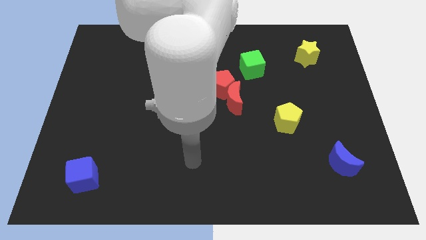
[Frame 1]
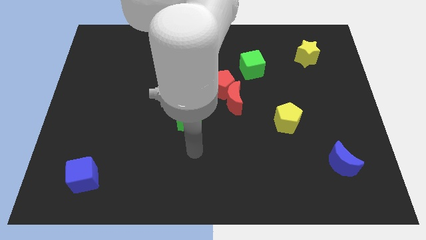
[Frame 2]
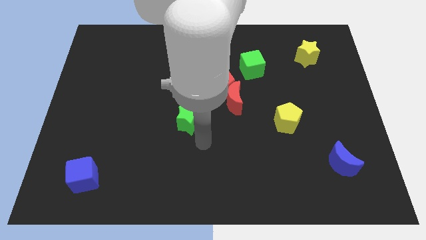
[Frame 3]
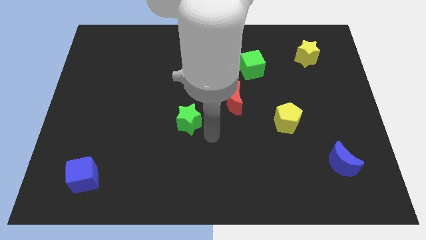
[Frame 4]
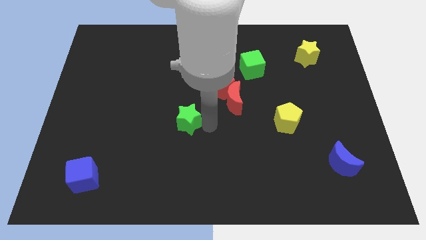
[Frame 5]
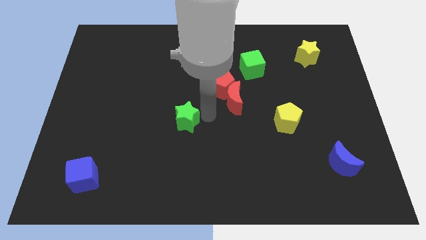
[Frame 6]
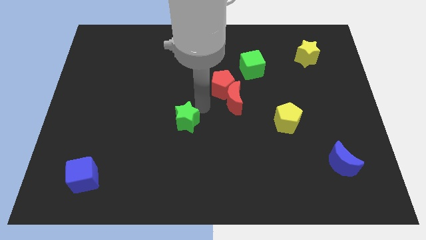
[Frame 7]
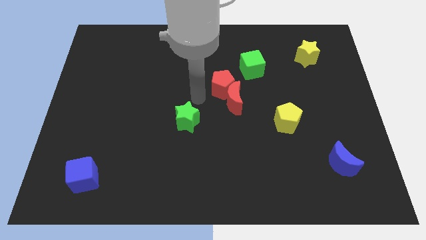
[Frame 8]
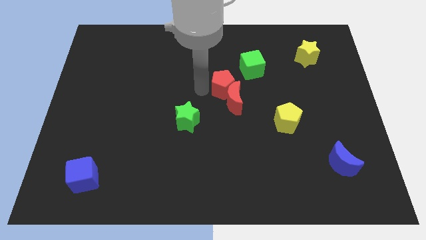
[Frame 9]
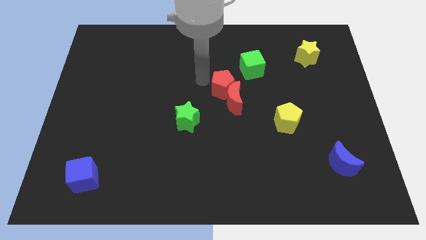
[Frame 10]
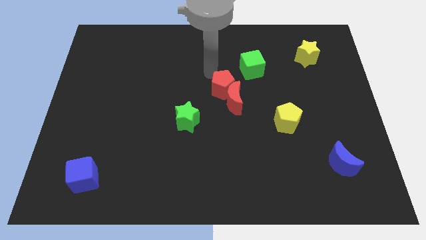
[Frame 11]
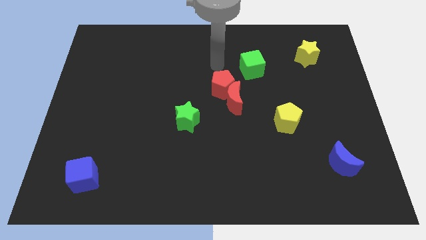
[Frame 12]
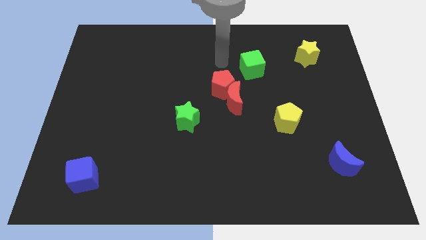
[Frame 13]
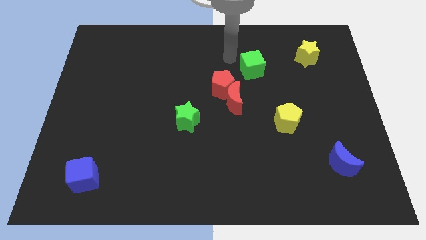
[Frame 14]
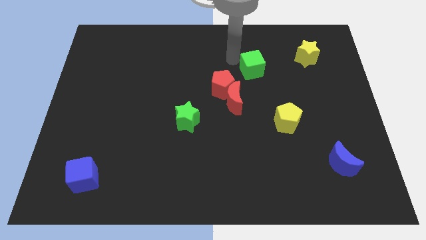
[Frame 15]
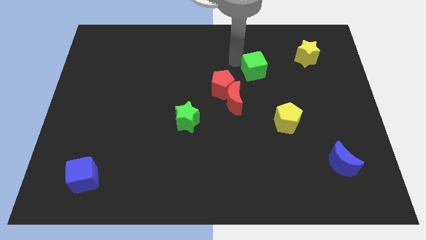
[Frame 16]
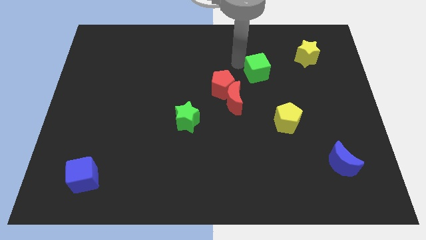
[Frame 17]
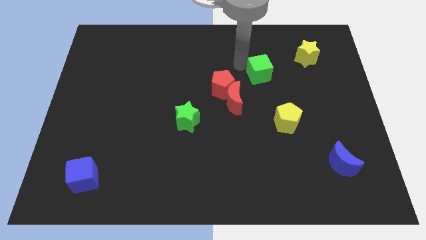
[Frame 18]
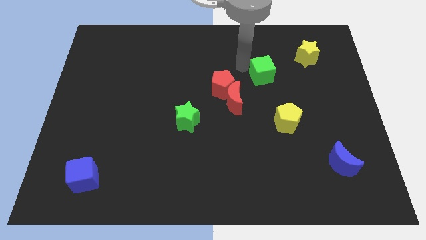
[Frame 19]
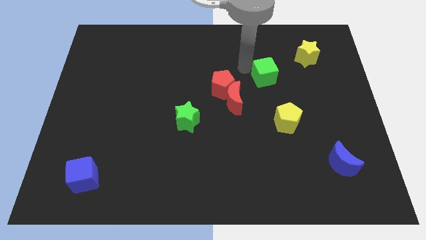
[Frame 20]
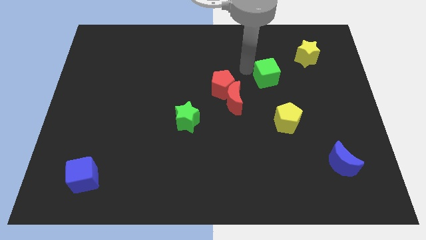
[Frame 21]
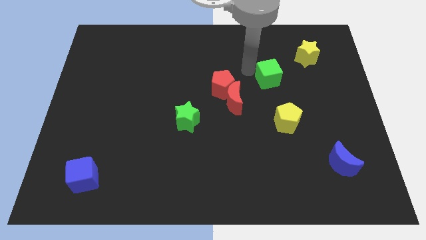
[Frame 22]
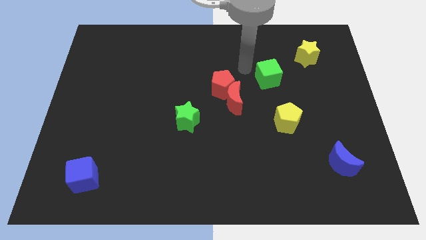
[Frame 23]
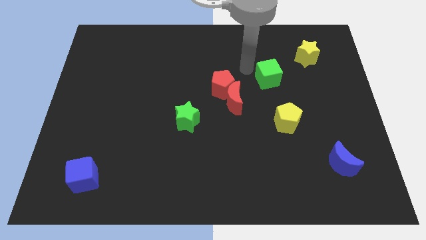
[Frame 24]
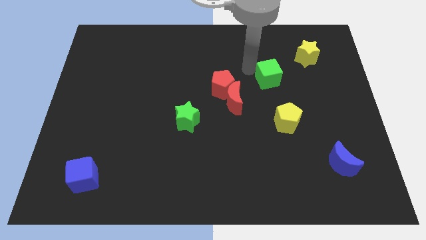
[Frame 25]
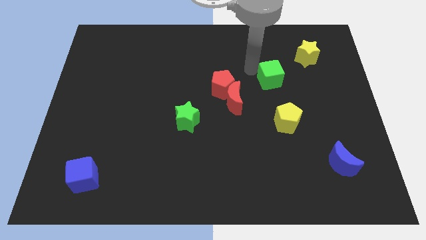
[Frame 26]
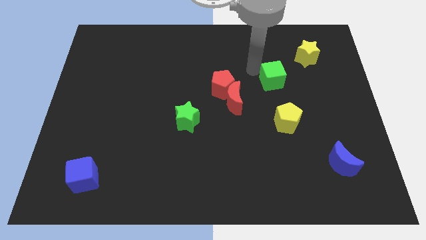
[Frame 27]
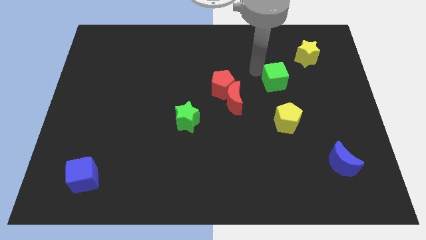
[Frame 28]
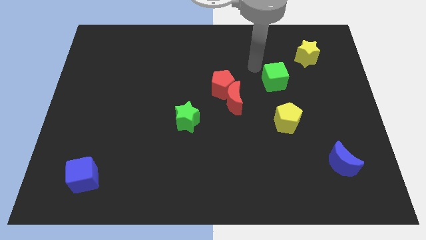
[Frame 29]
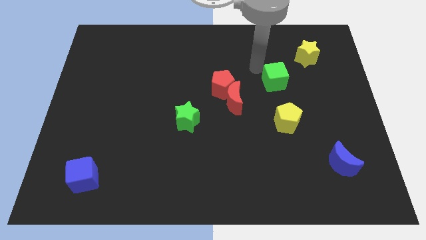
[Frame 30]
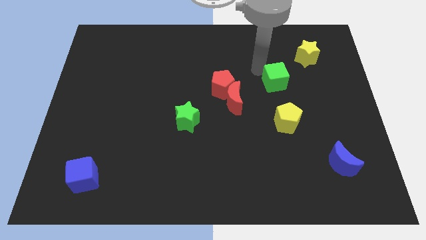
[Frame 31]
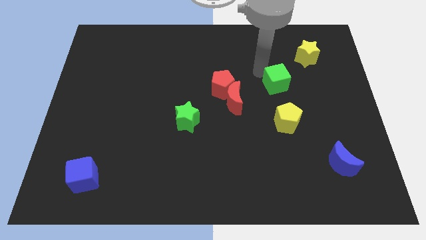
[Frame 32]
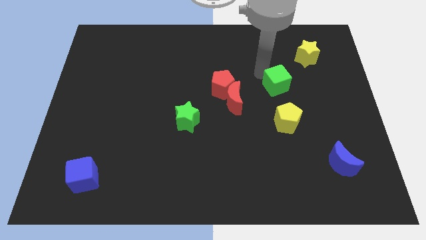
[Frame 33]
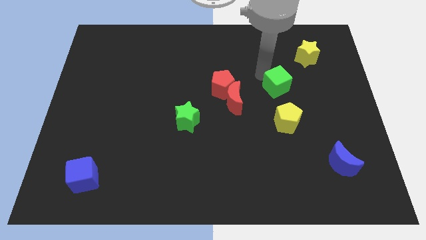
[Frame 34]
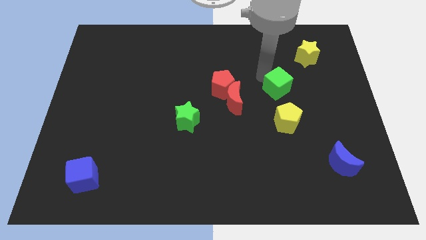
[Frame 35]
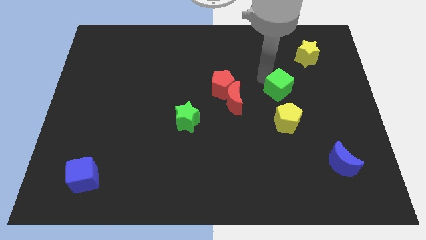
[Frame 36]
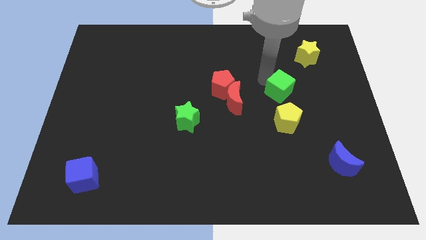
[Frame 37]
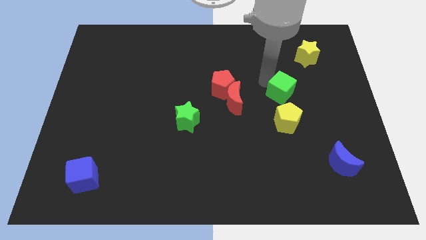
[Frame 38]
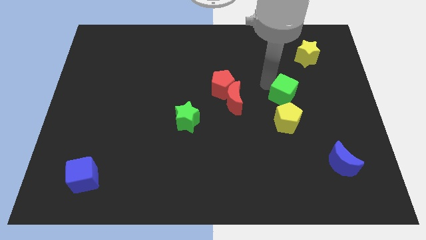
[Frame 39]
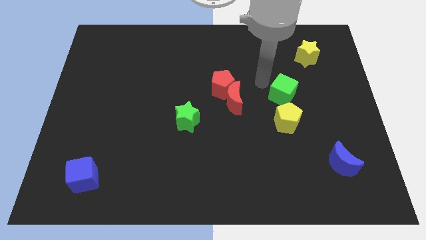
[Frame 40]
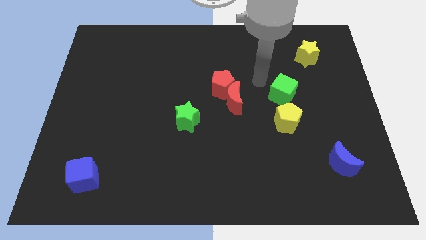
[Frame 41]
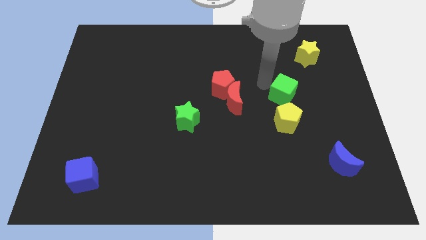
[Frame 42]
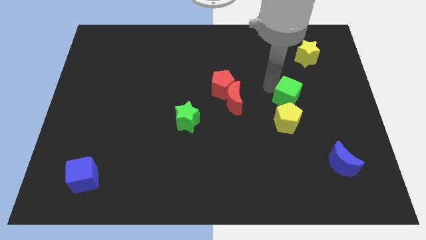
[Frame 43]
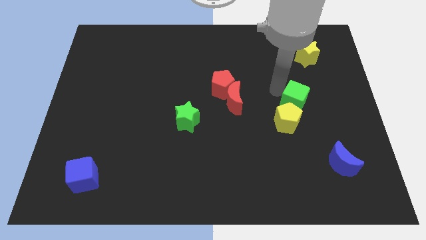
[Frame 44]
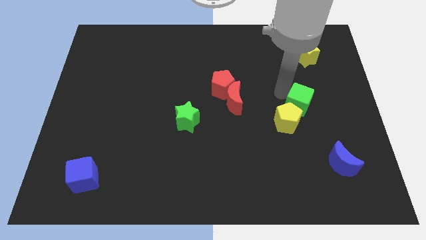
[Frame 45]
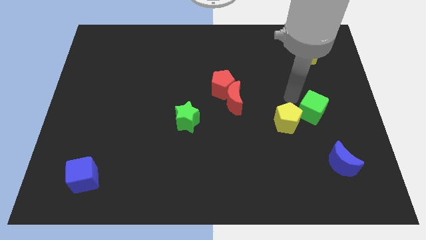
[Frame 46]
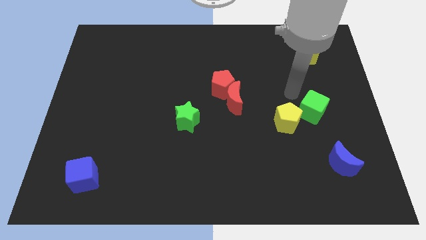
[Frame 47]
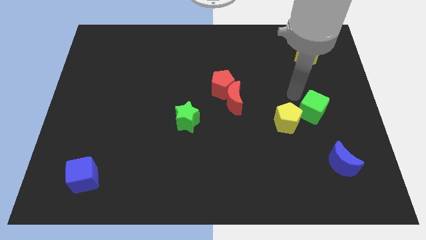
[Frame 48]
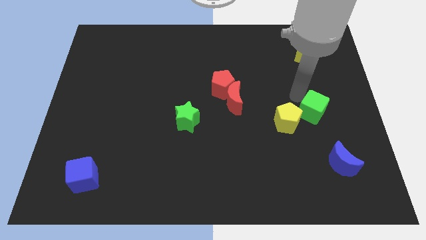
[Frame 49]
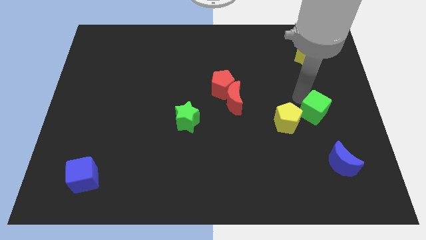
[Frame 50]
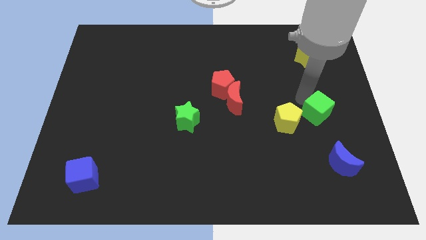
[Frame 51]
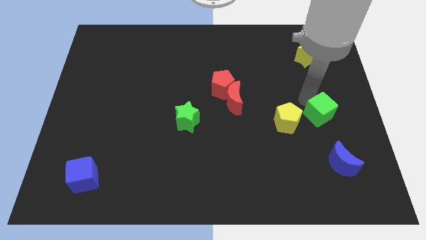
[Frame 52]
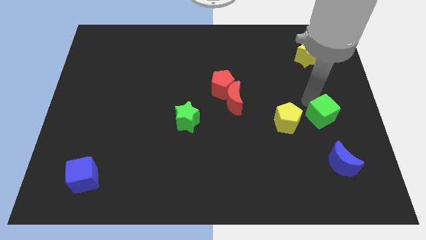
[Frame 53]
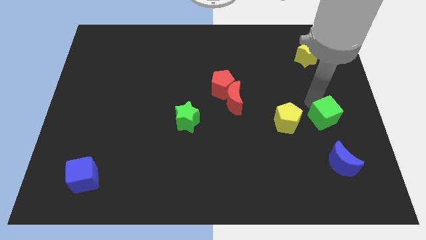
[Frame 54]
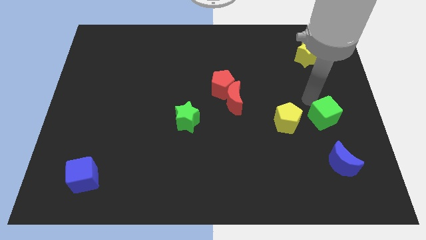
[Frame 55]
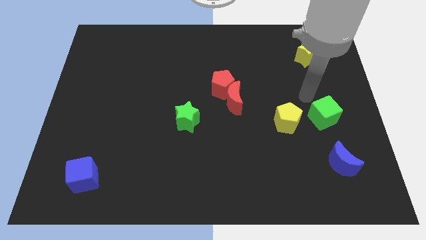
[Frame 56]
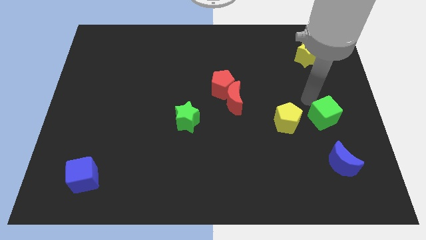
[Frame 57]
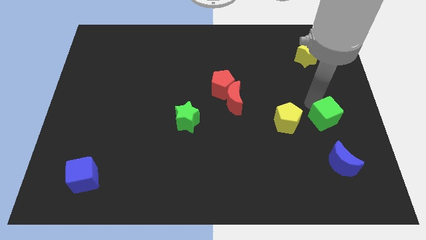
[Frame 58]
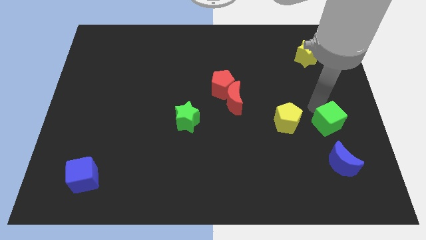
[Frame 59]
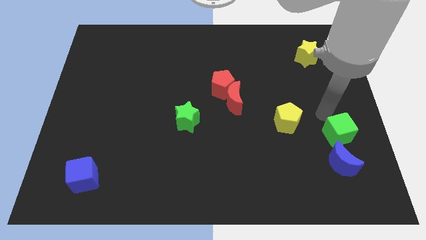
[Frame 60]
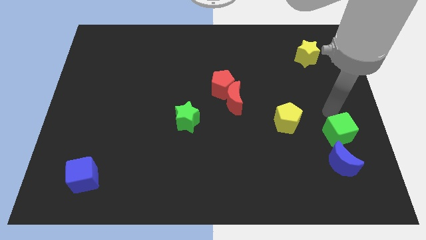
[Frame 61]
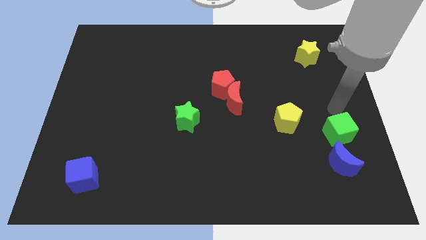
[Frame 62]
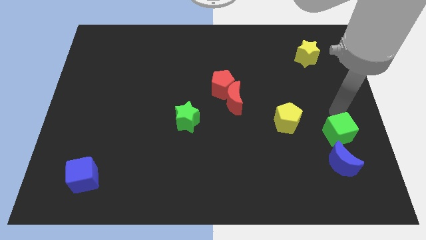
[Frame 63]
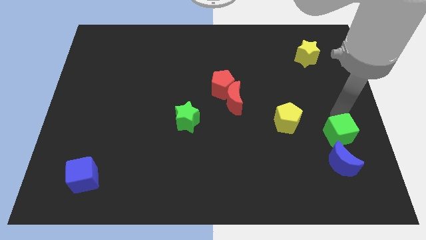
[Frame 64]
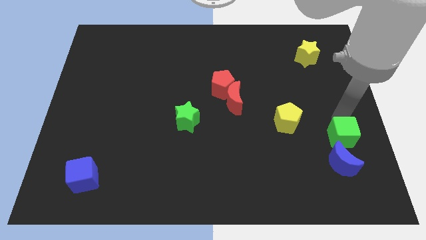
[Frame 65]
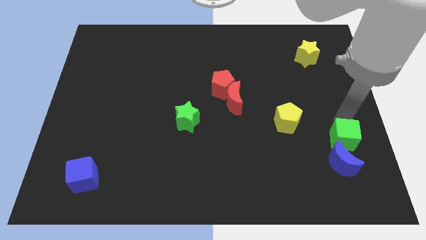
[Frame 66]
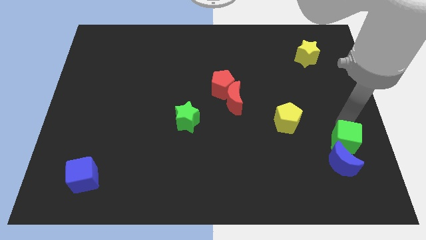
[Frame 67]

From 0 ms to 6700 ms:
move the green cube next to the blue moon
